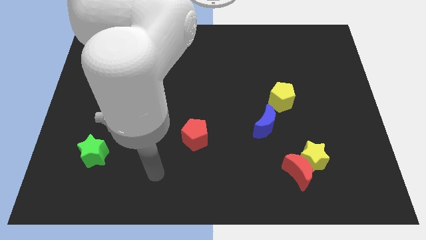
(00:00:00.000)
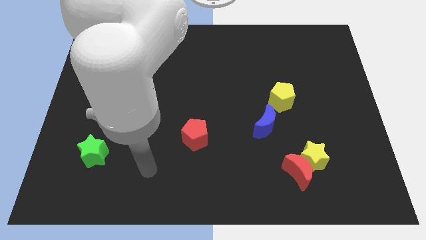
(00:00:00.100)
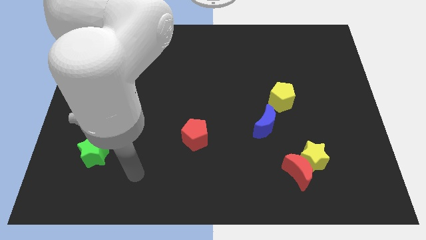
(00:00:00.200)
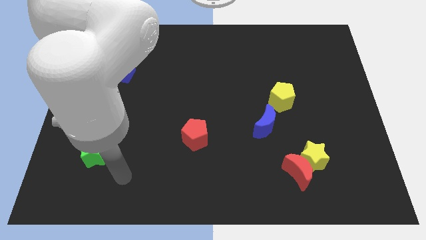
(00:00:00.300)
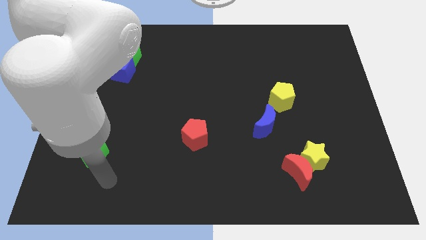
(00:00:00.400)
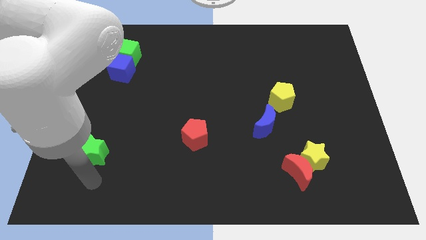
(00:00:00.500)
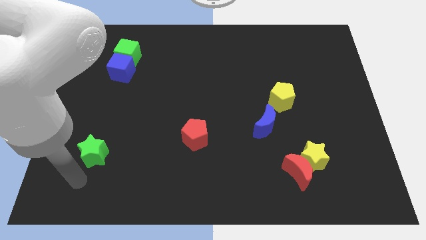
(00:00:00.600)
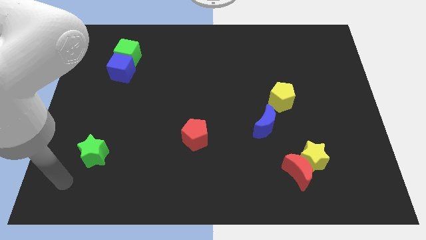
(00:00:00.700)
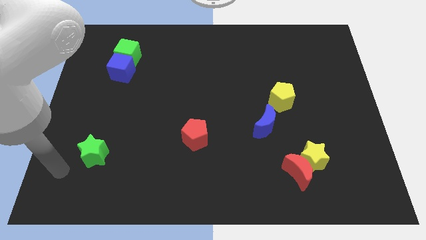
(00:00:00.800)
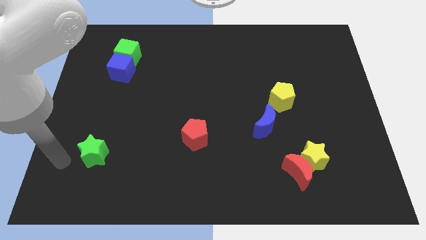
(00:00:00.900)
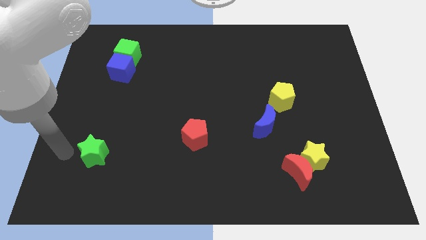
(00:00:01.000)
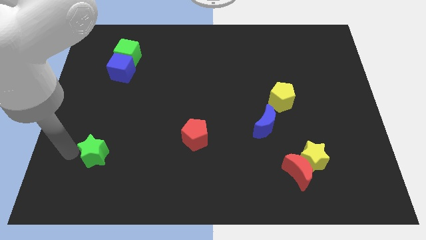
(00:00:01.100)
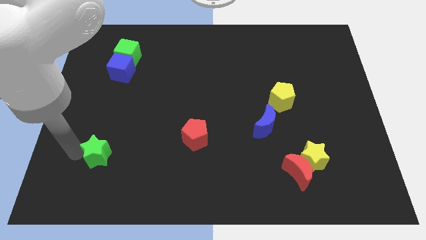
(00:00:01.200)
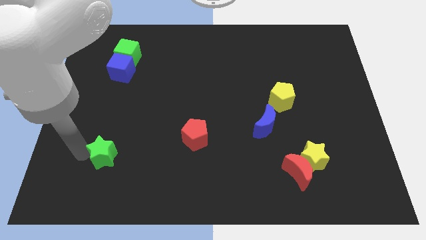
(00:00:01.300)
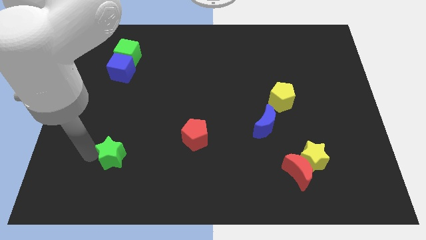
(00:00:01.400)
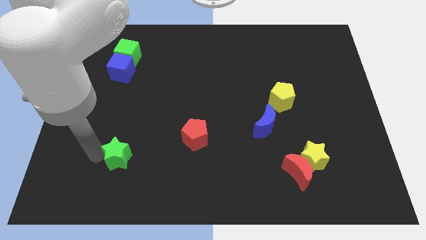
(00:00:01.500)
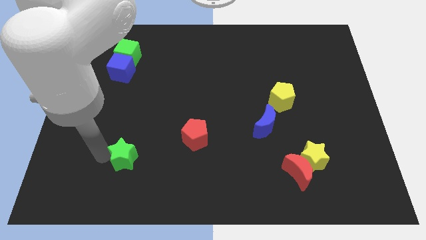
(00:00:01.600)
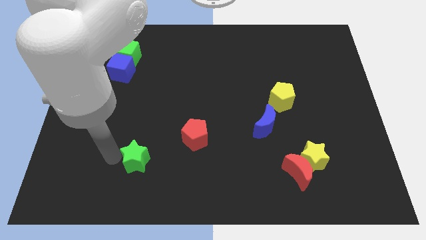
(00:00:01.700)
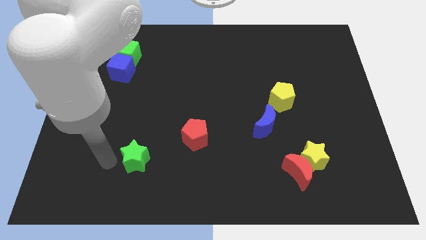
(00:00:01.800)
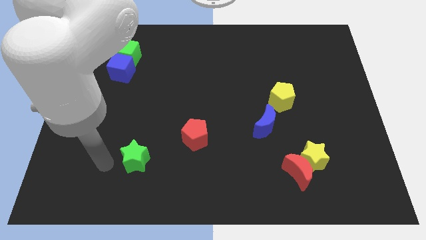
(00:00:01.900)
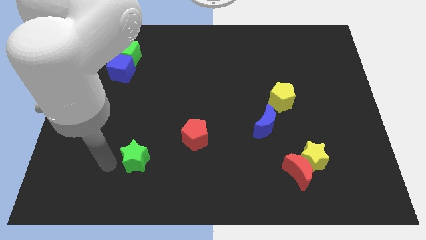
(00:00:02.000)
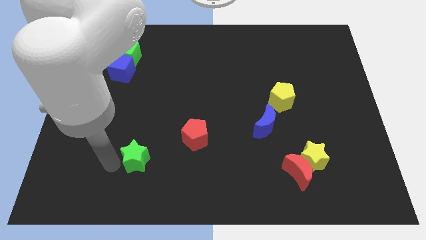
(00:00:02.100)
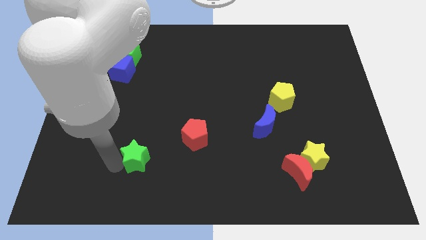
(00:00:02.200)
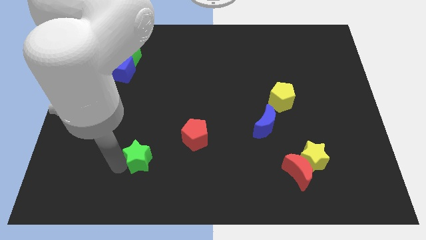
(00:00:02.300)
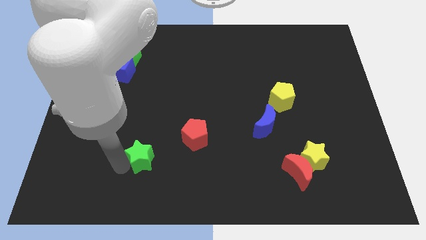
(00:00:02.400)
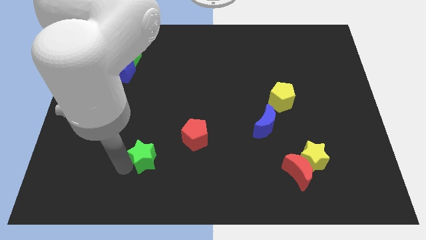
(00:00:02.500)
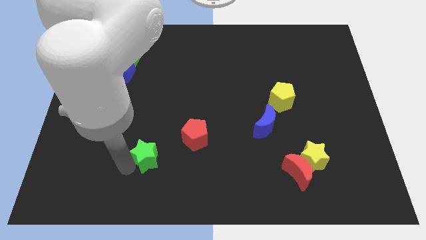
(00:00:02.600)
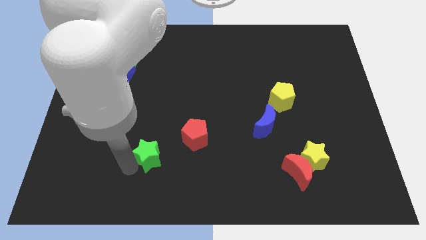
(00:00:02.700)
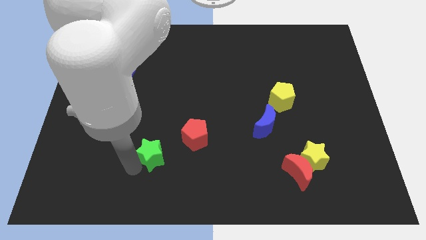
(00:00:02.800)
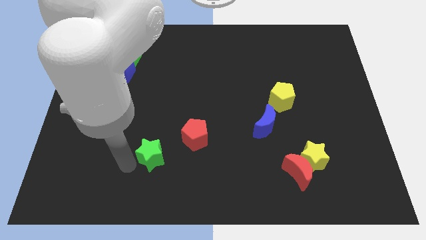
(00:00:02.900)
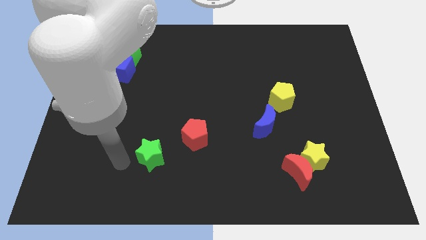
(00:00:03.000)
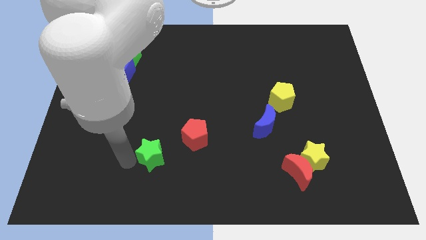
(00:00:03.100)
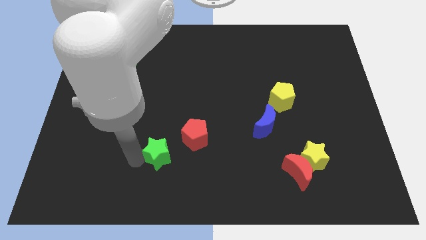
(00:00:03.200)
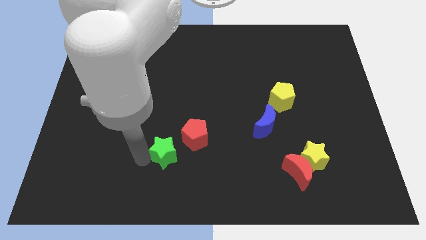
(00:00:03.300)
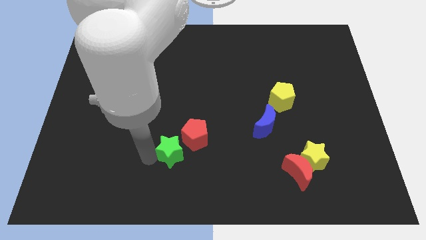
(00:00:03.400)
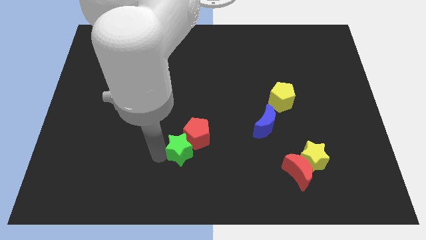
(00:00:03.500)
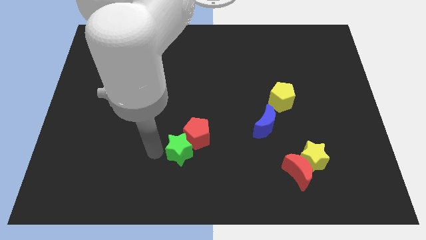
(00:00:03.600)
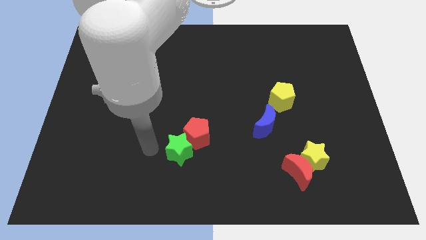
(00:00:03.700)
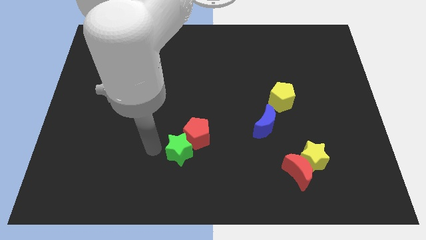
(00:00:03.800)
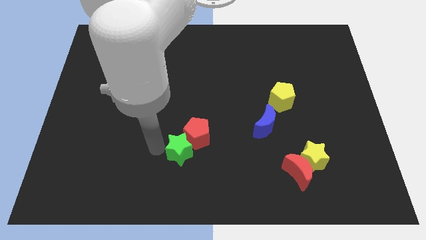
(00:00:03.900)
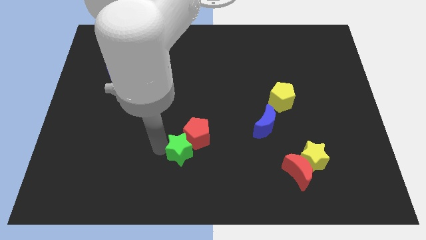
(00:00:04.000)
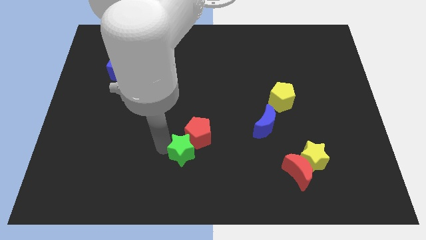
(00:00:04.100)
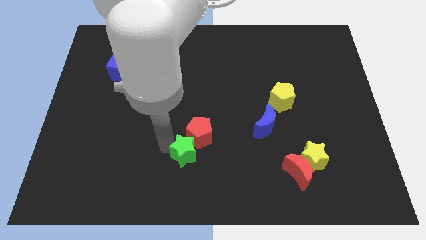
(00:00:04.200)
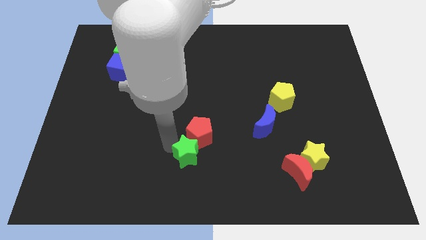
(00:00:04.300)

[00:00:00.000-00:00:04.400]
slide the green star to the right

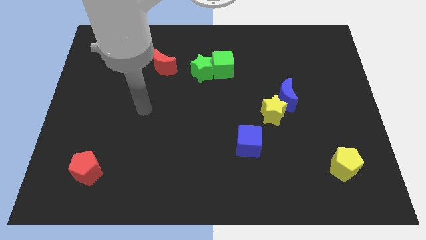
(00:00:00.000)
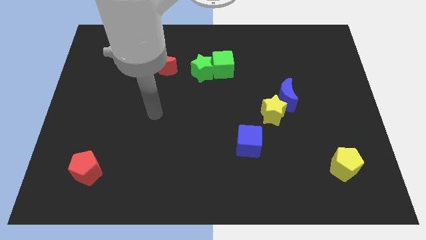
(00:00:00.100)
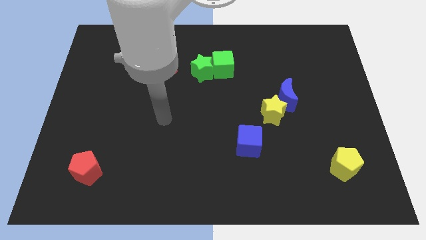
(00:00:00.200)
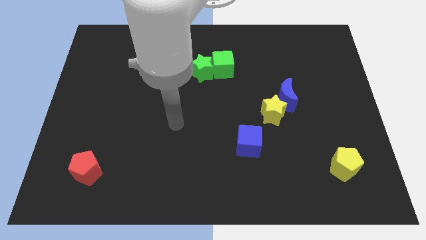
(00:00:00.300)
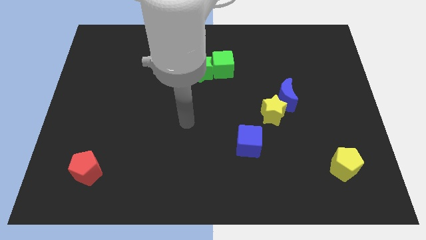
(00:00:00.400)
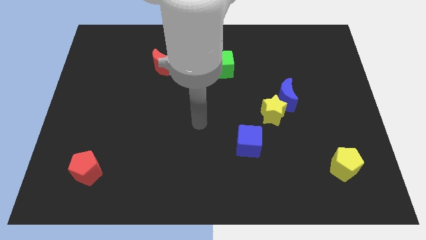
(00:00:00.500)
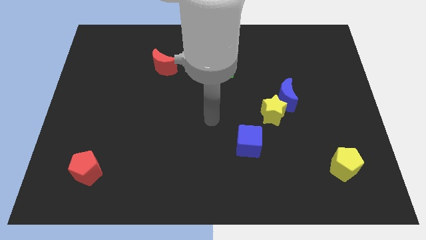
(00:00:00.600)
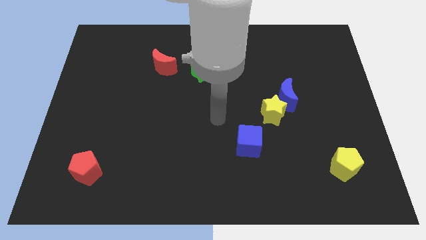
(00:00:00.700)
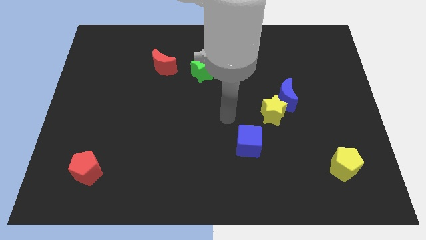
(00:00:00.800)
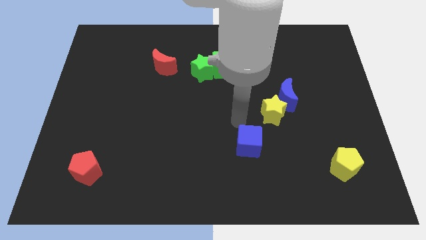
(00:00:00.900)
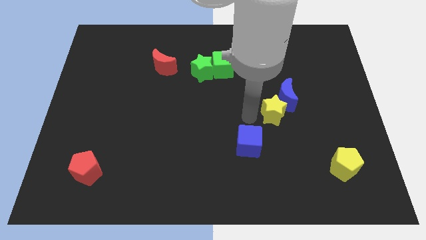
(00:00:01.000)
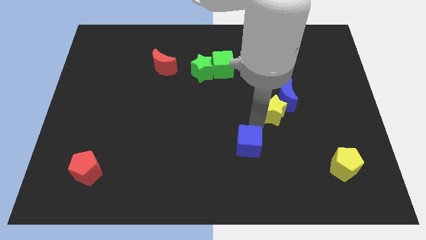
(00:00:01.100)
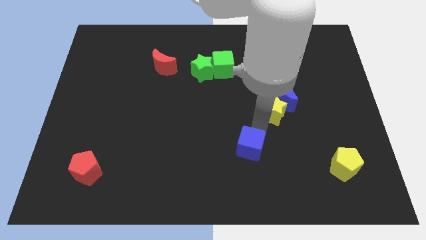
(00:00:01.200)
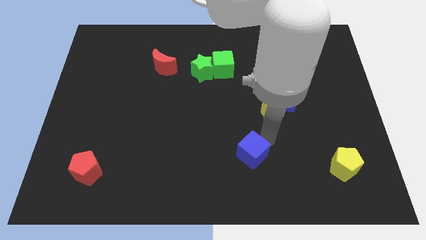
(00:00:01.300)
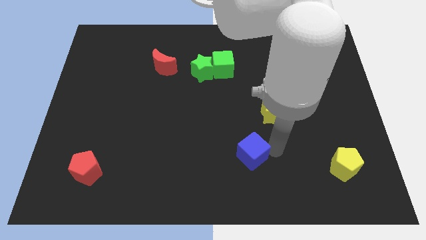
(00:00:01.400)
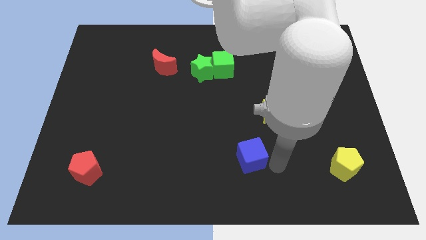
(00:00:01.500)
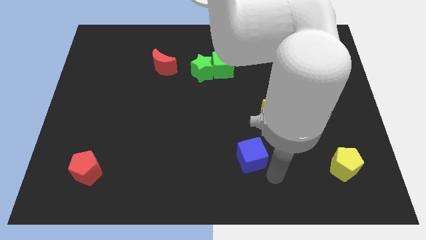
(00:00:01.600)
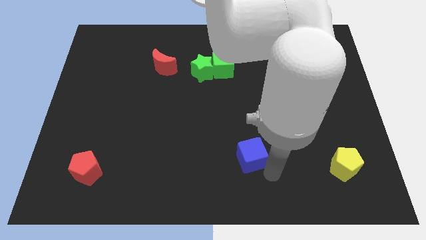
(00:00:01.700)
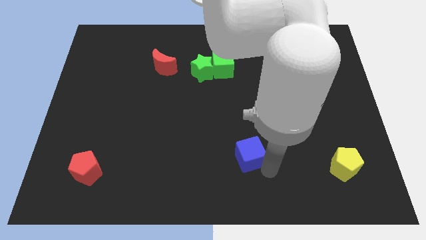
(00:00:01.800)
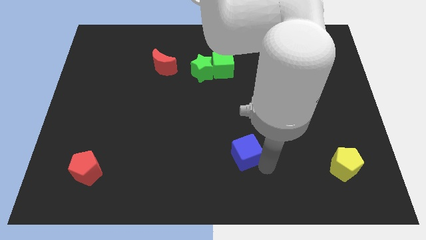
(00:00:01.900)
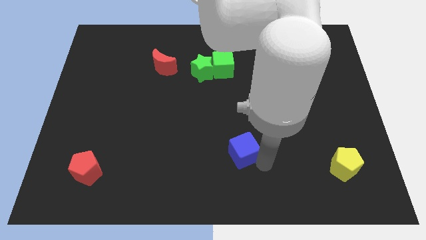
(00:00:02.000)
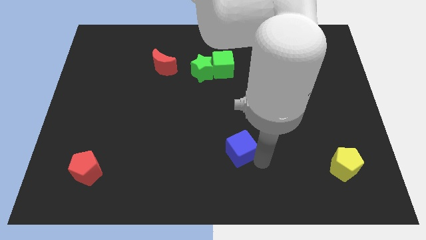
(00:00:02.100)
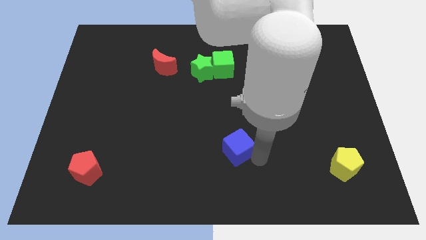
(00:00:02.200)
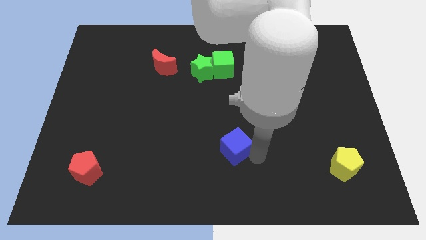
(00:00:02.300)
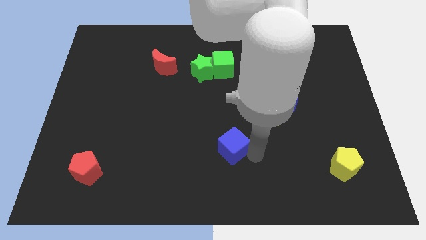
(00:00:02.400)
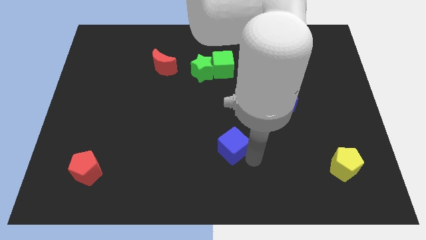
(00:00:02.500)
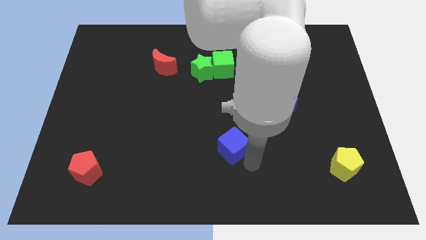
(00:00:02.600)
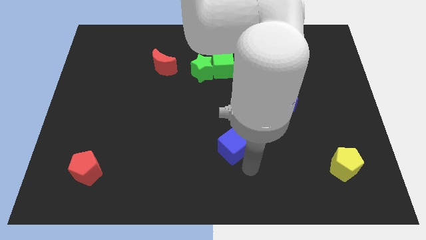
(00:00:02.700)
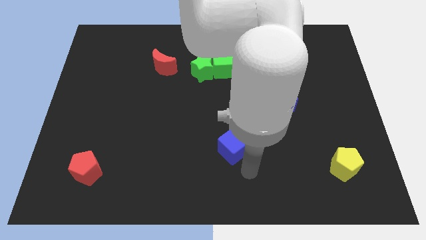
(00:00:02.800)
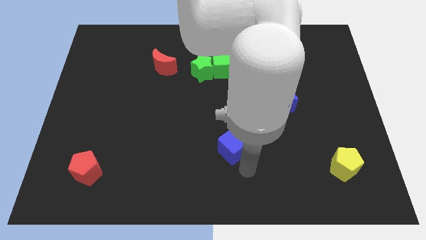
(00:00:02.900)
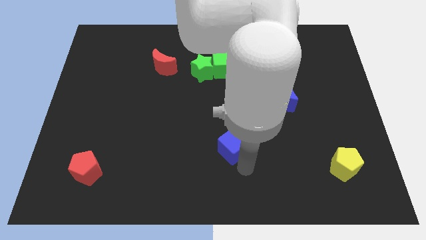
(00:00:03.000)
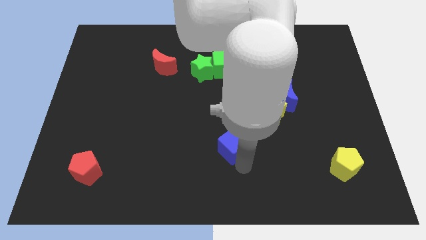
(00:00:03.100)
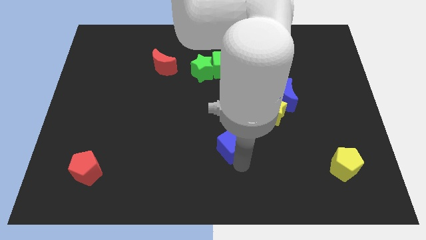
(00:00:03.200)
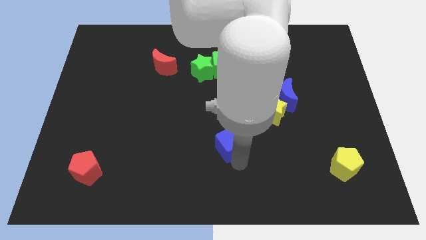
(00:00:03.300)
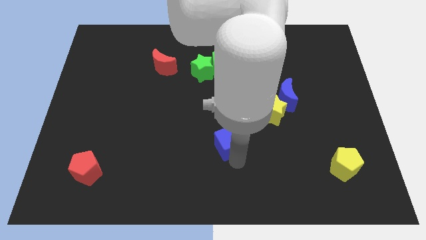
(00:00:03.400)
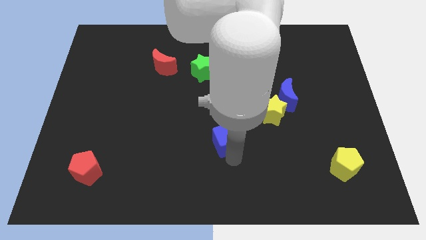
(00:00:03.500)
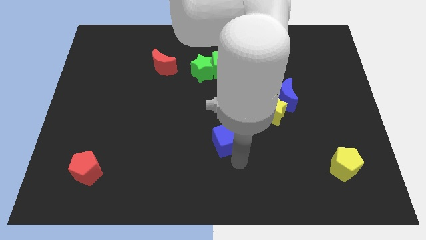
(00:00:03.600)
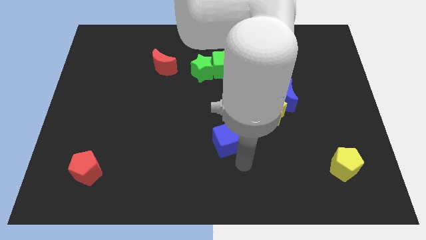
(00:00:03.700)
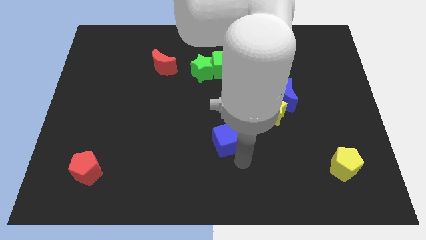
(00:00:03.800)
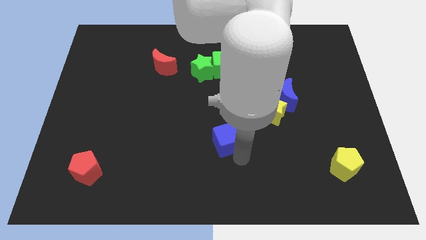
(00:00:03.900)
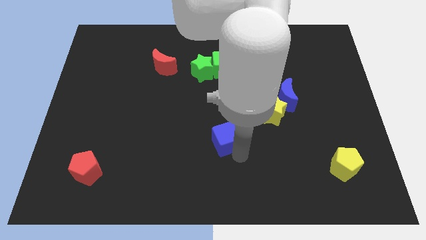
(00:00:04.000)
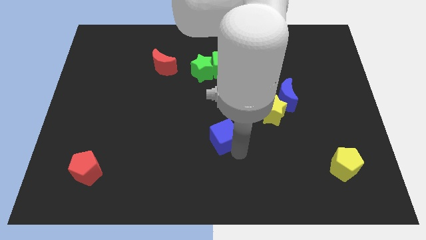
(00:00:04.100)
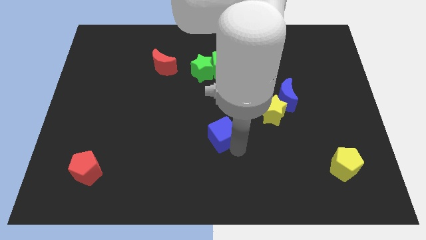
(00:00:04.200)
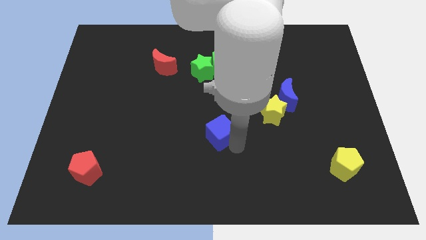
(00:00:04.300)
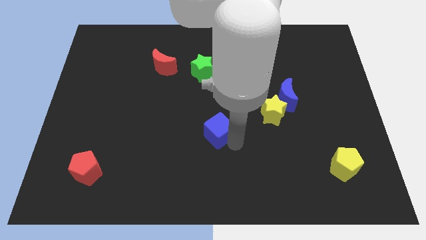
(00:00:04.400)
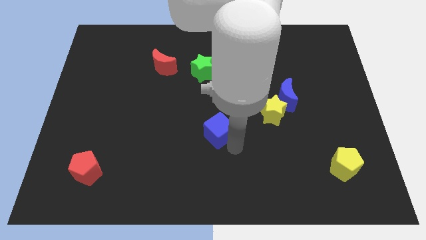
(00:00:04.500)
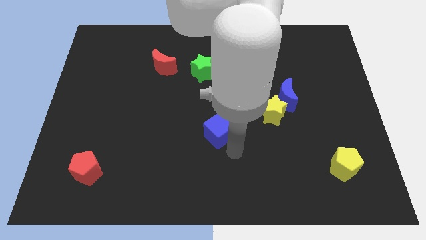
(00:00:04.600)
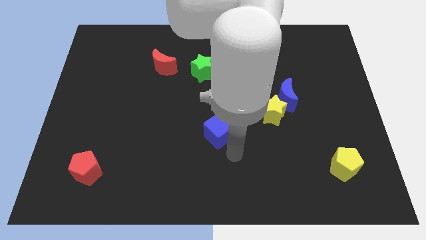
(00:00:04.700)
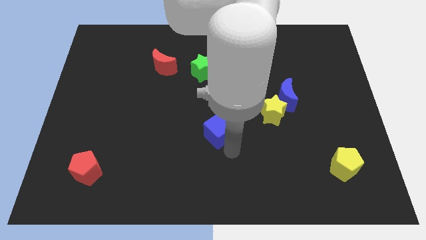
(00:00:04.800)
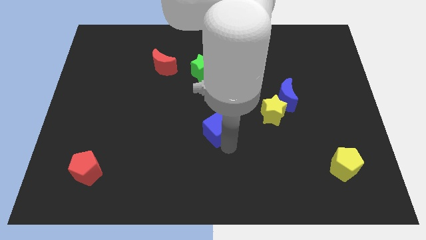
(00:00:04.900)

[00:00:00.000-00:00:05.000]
slightly push the blue cube diagonally up and left
